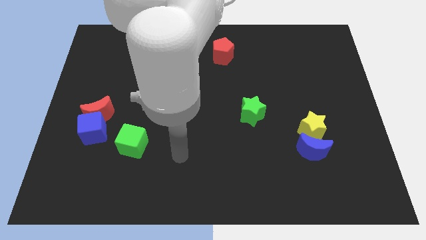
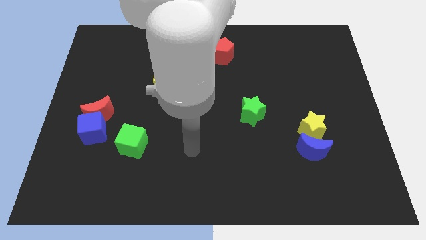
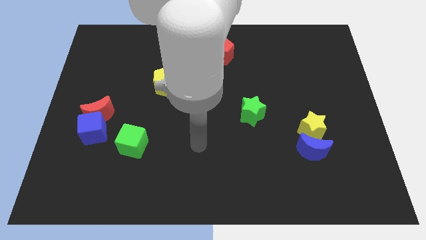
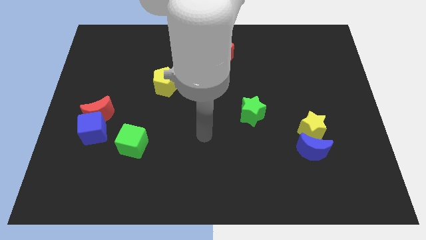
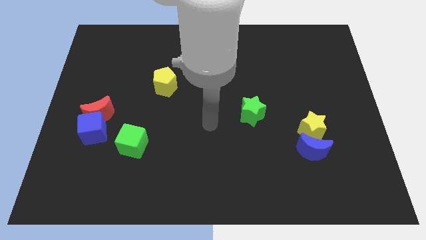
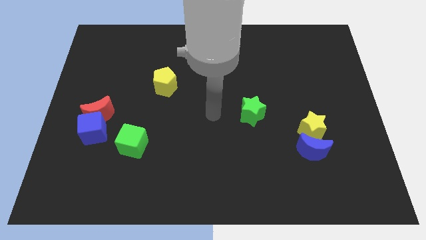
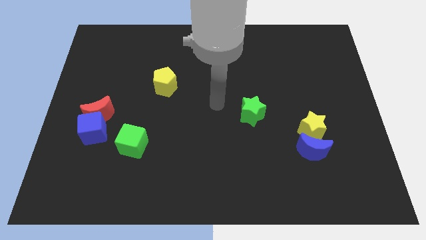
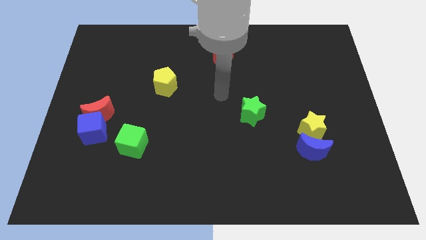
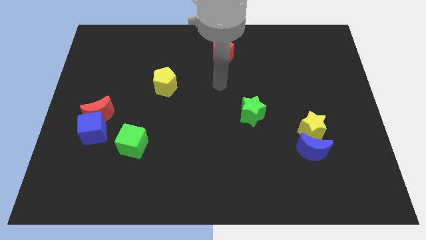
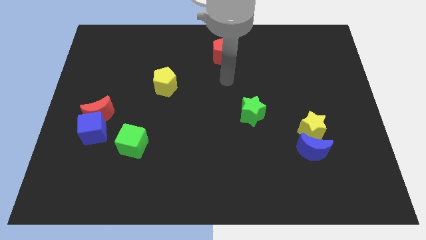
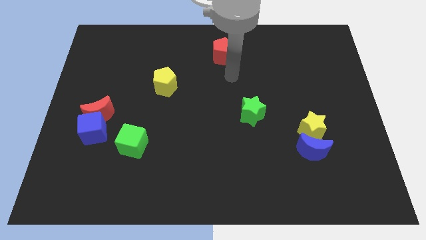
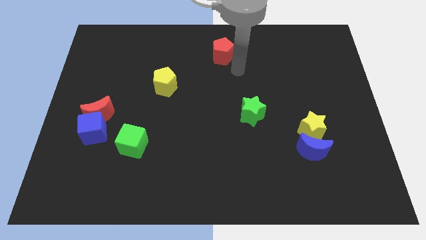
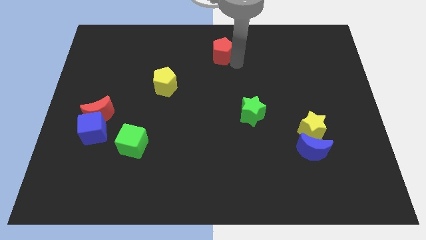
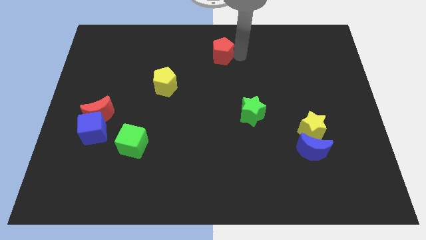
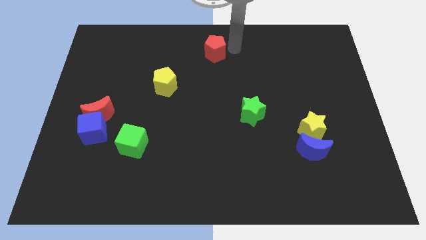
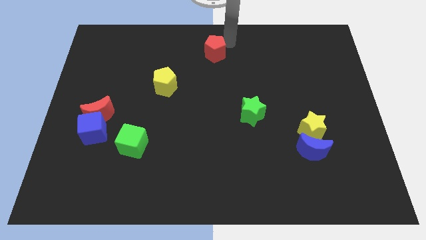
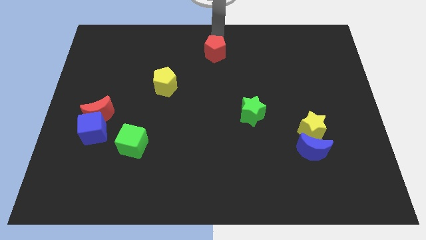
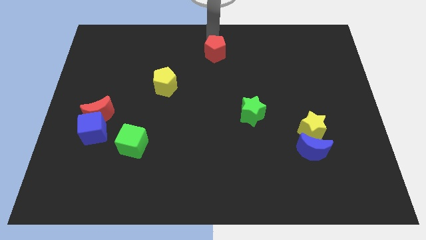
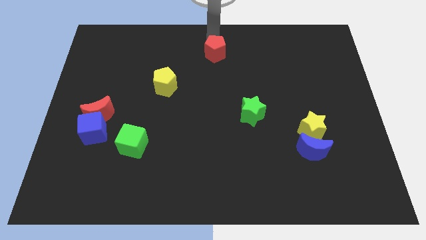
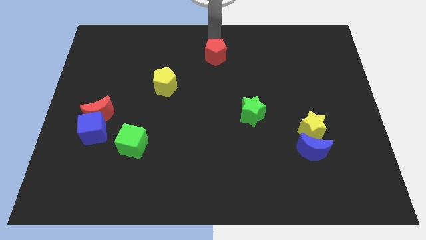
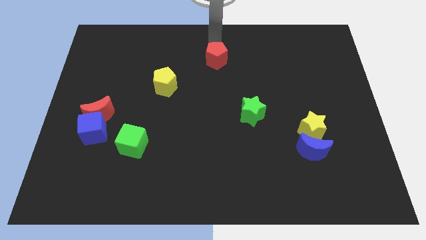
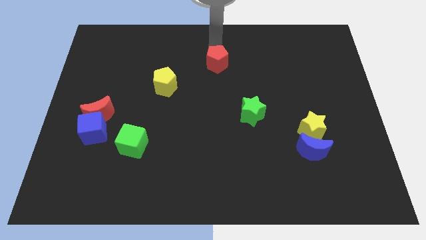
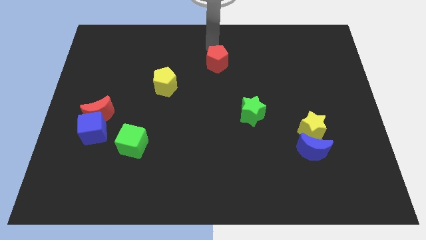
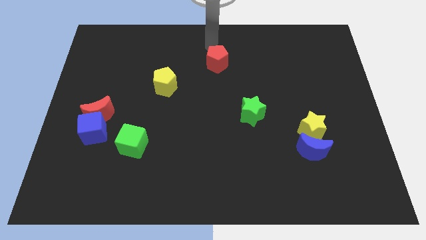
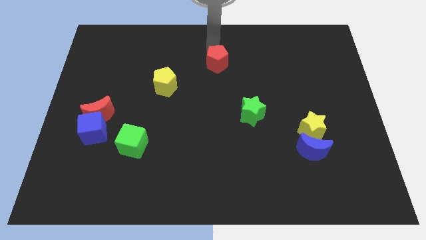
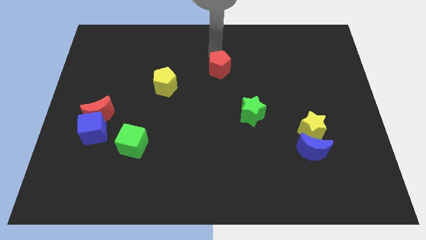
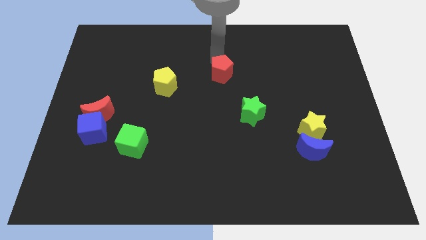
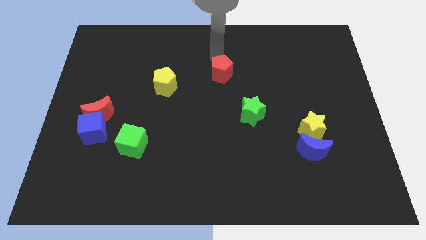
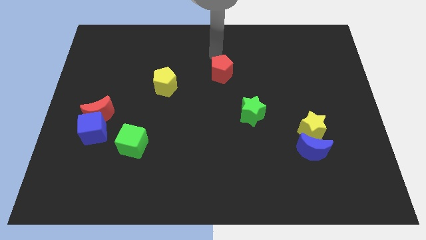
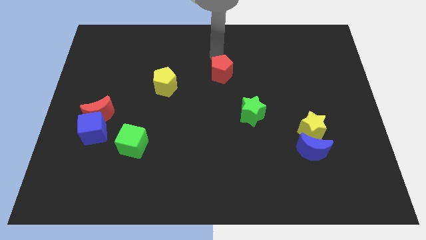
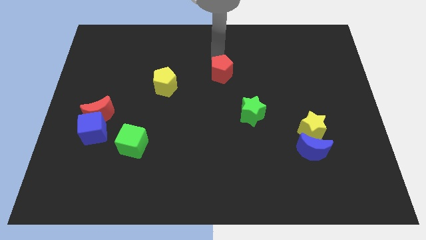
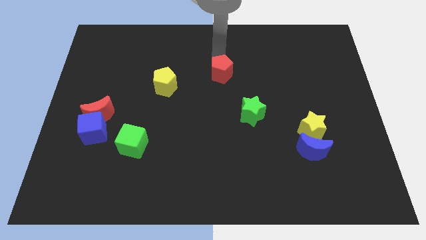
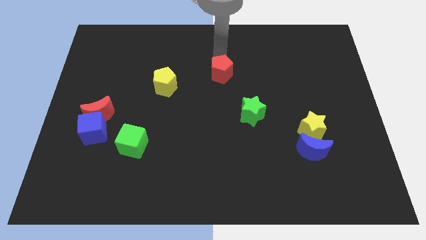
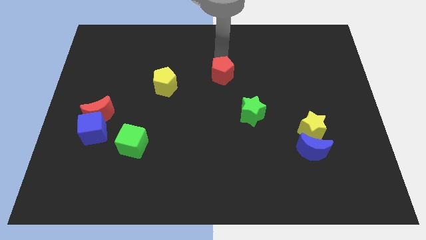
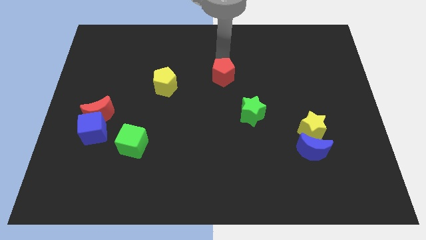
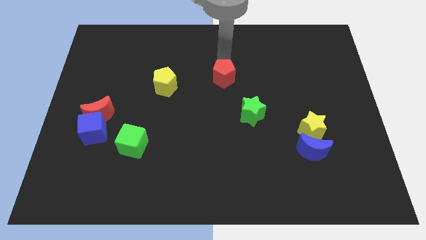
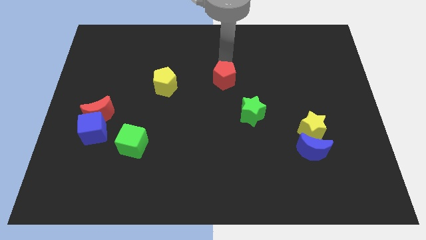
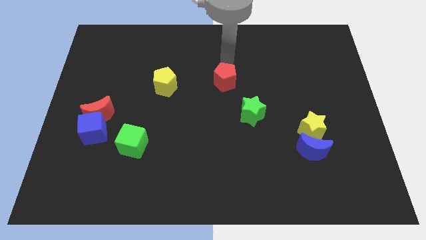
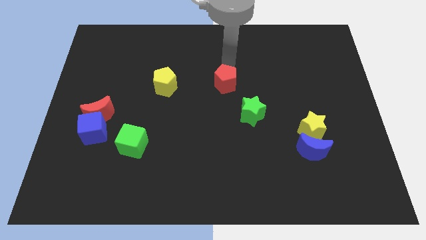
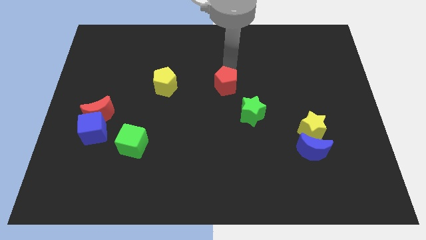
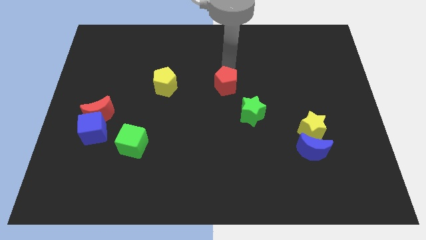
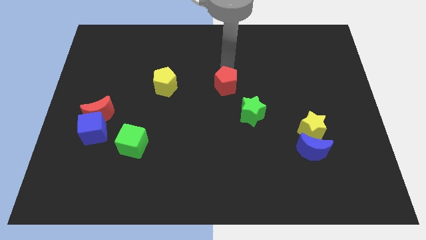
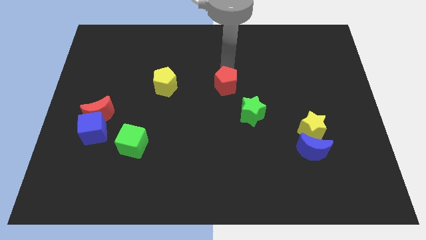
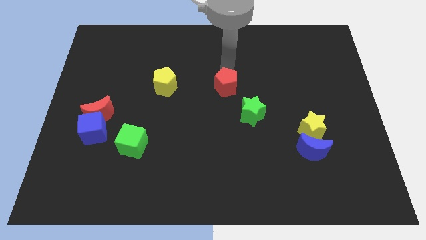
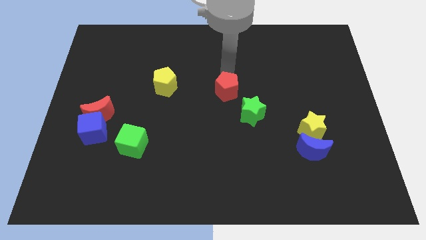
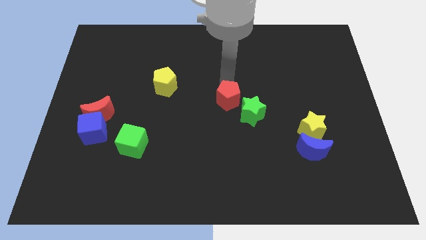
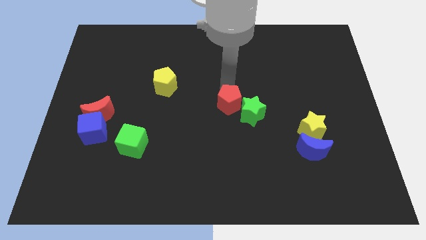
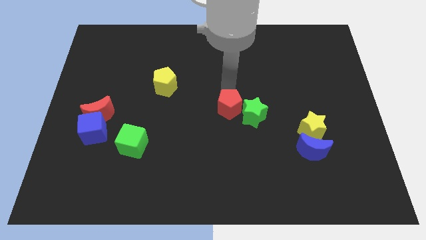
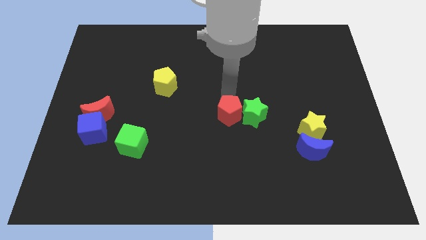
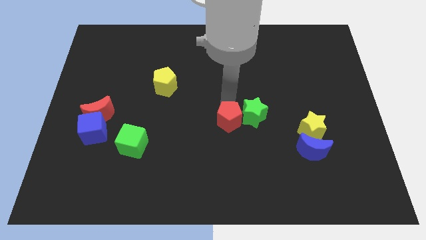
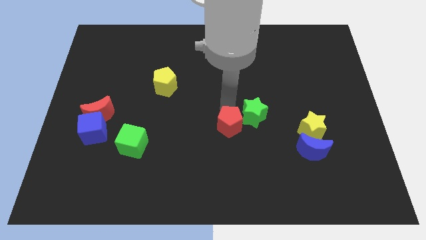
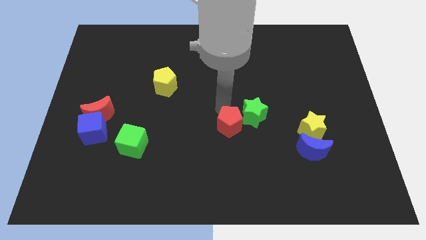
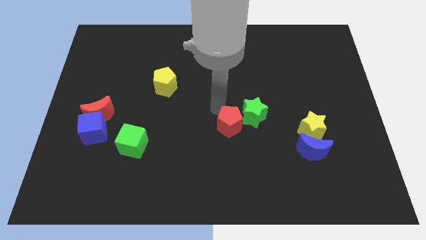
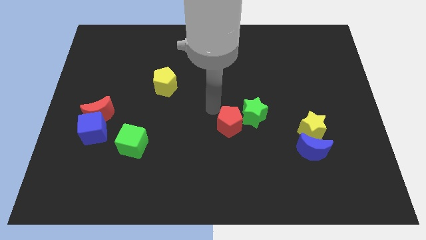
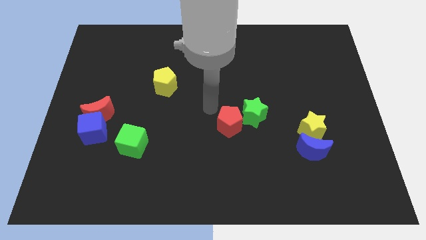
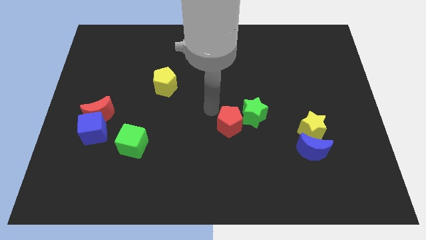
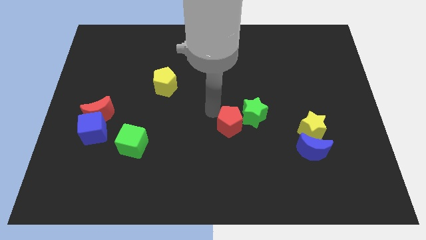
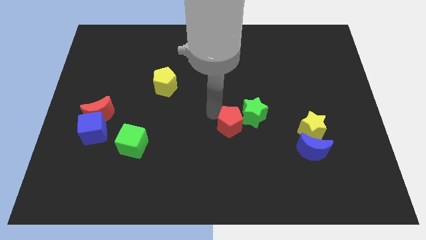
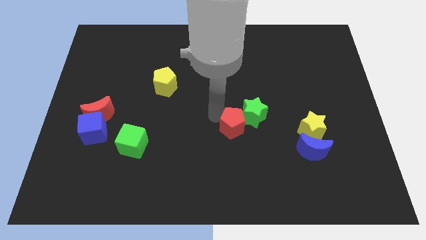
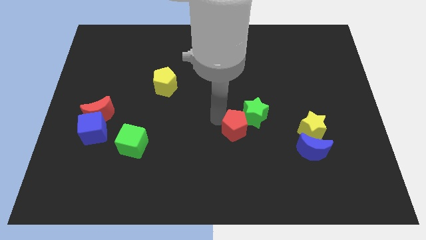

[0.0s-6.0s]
move the red pentagon to the bottom side of the green star
